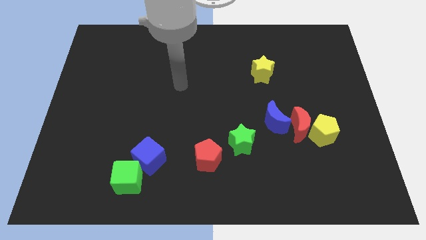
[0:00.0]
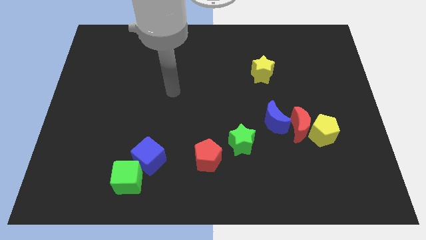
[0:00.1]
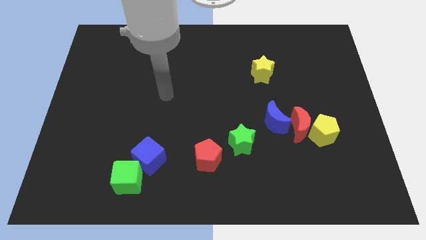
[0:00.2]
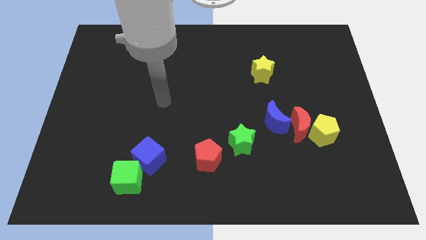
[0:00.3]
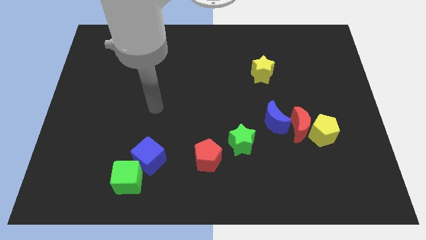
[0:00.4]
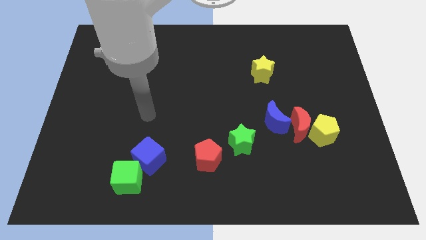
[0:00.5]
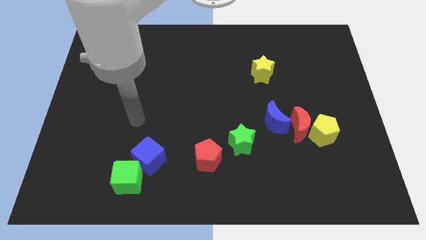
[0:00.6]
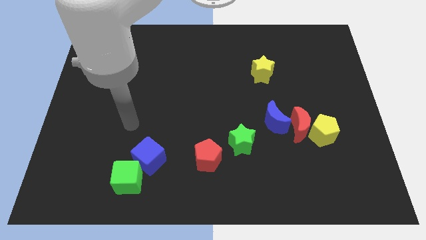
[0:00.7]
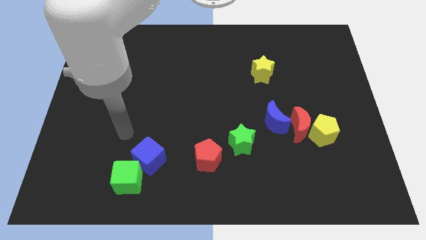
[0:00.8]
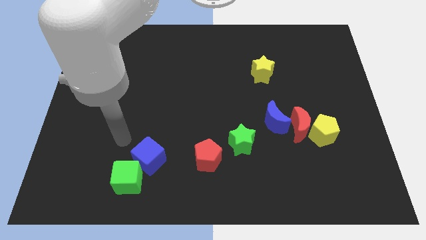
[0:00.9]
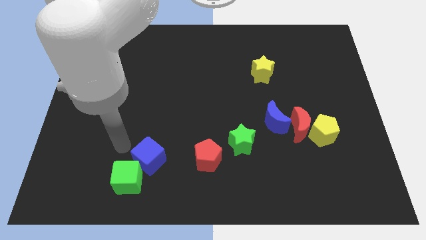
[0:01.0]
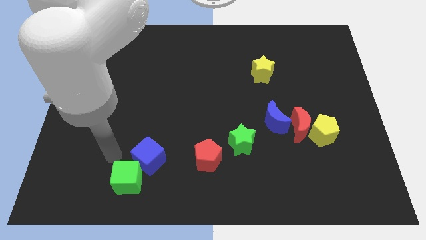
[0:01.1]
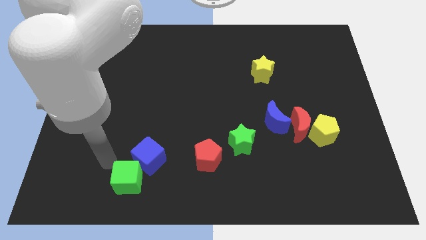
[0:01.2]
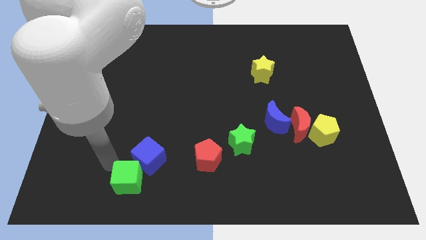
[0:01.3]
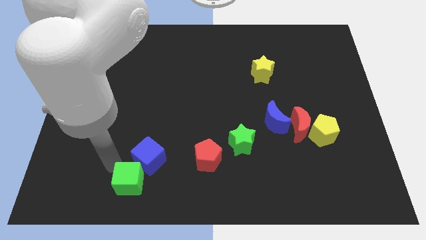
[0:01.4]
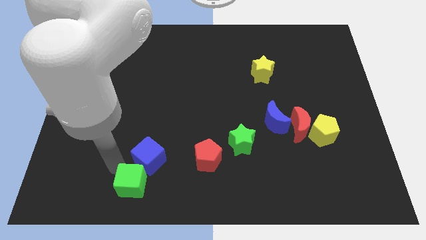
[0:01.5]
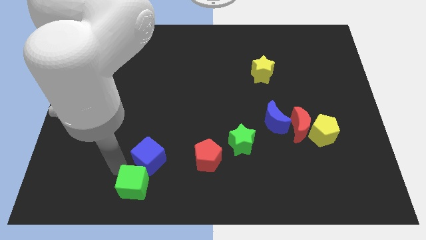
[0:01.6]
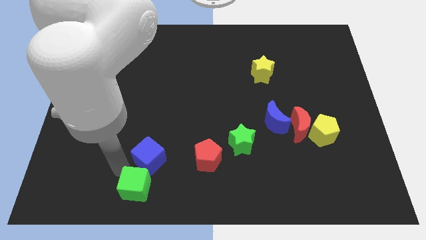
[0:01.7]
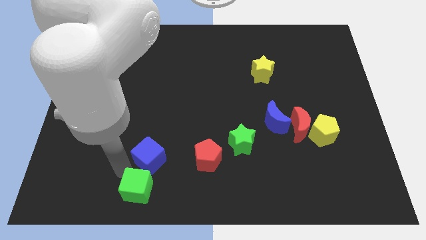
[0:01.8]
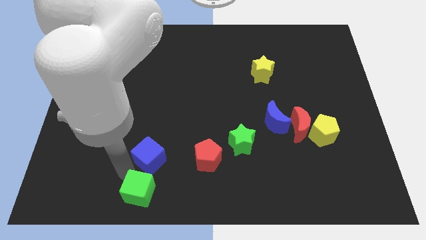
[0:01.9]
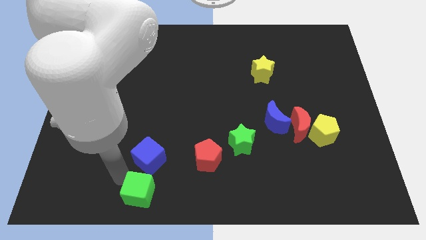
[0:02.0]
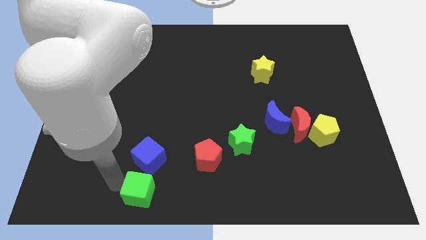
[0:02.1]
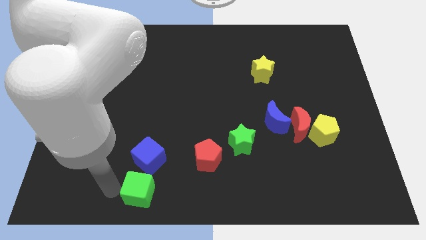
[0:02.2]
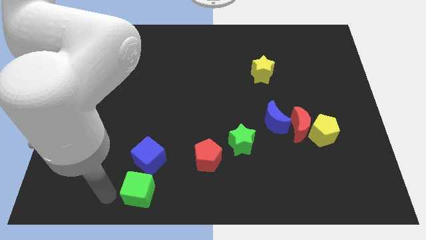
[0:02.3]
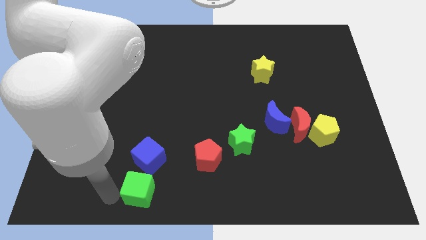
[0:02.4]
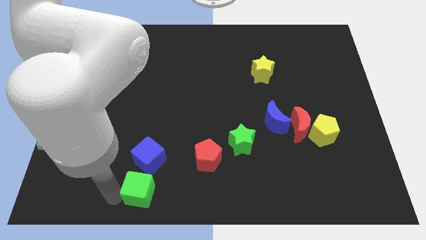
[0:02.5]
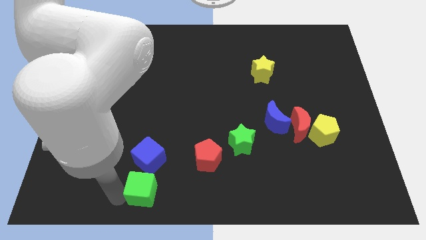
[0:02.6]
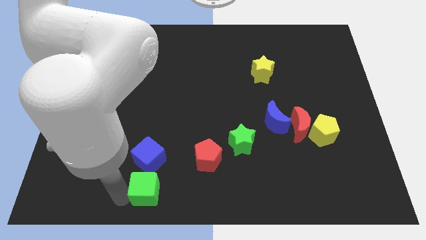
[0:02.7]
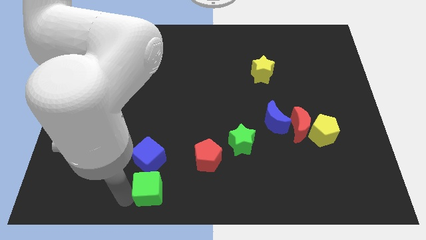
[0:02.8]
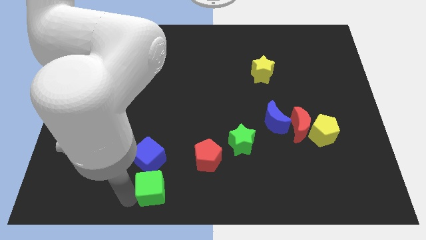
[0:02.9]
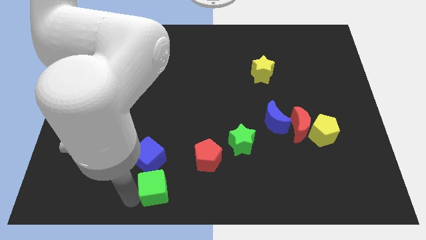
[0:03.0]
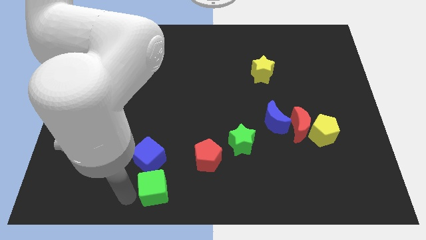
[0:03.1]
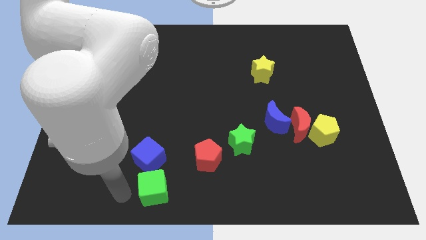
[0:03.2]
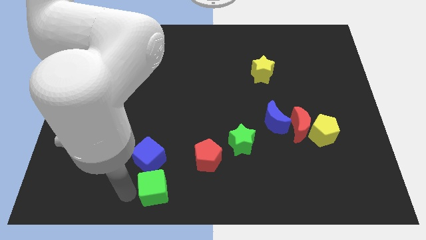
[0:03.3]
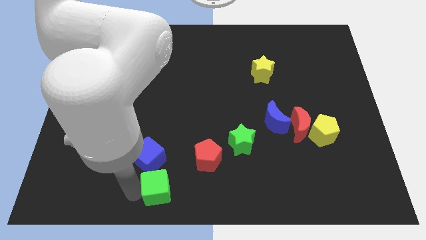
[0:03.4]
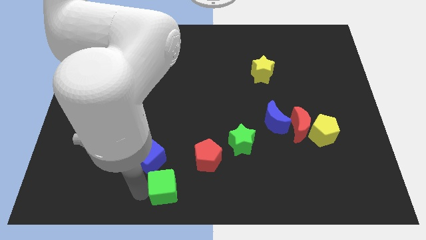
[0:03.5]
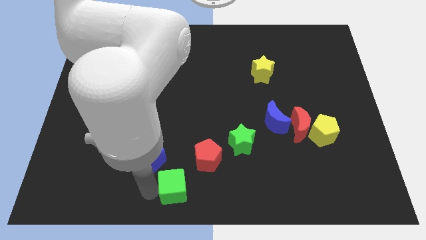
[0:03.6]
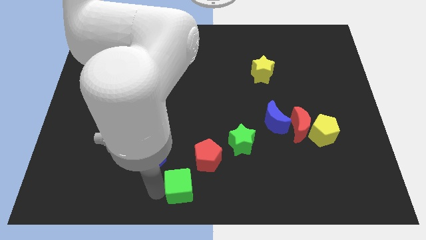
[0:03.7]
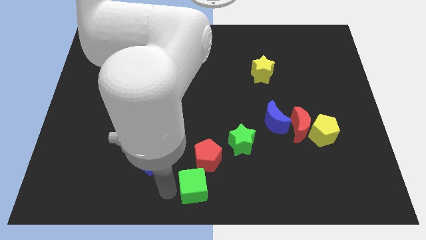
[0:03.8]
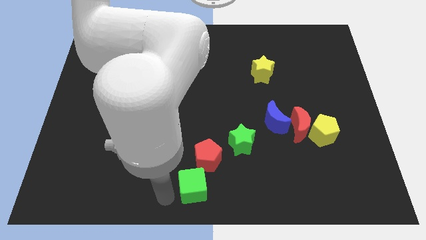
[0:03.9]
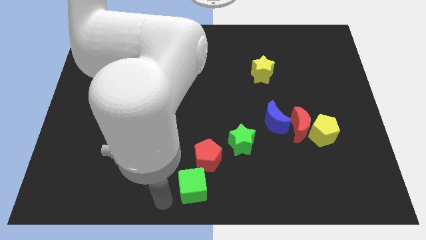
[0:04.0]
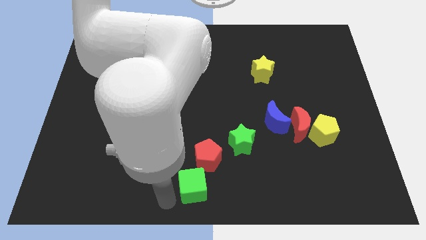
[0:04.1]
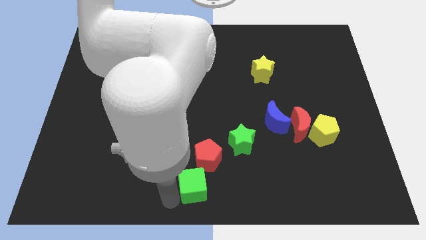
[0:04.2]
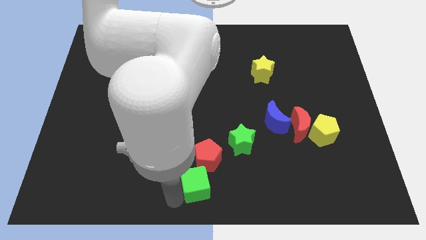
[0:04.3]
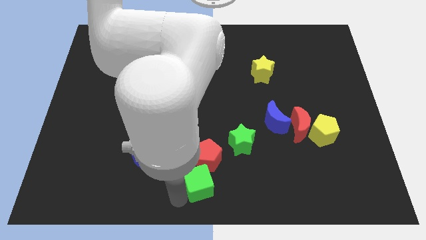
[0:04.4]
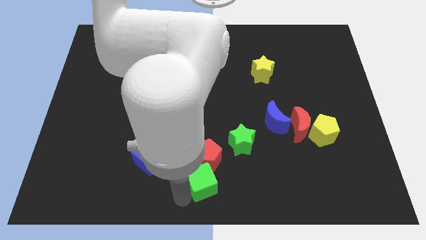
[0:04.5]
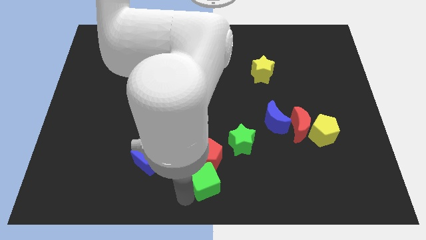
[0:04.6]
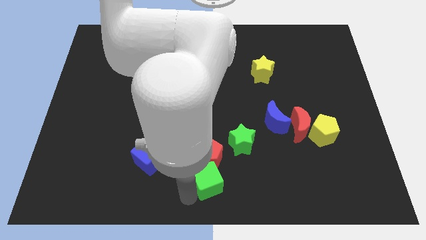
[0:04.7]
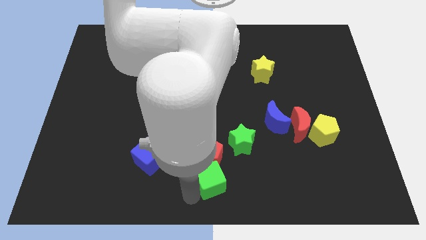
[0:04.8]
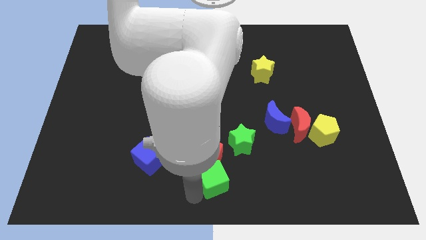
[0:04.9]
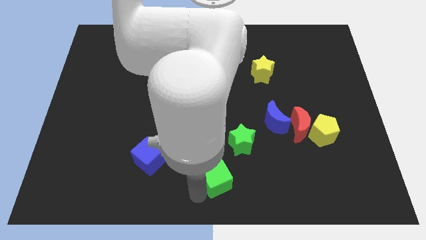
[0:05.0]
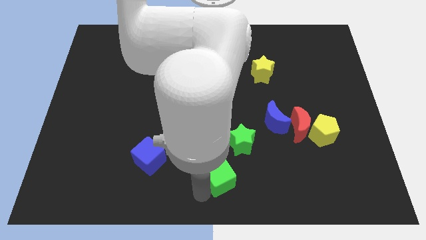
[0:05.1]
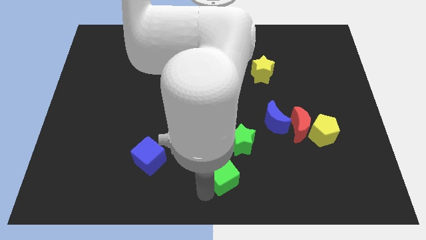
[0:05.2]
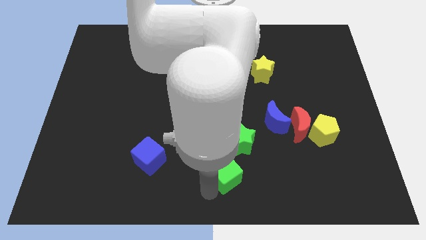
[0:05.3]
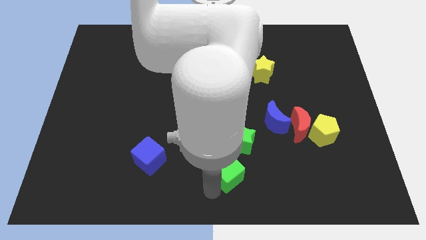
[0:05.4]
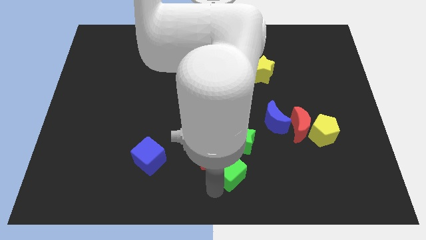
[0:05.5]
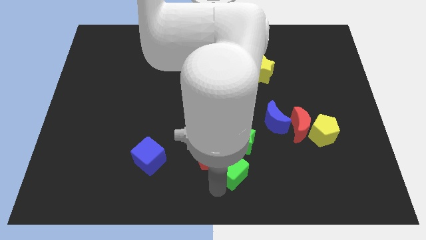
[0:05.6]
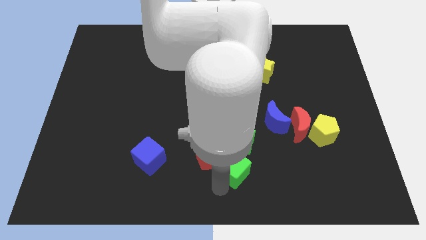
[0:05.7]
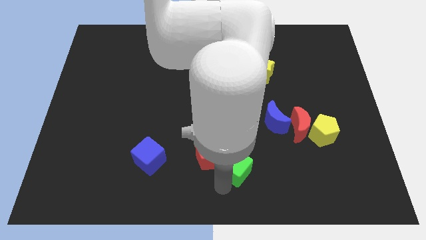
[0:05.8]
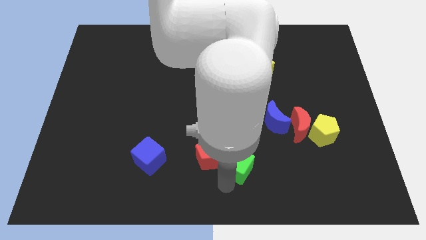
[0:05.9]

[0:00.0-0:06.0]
slide the green cube towards the green star
